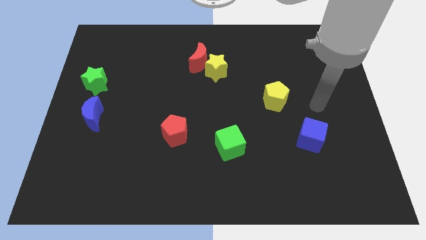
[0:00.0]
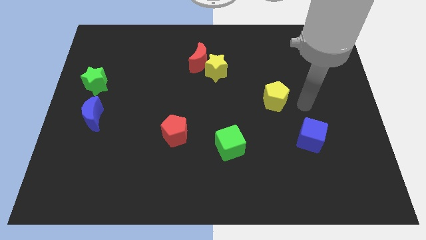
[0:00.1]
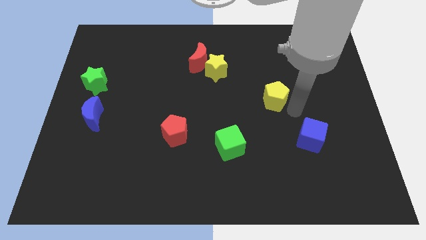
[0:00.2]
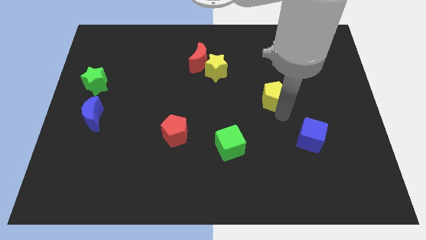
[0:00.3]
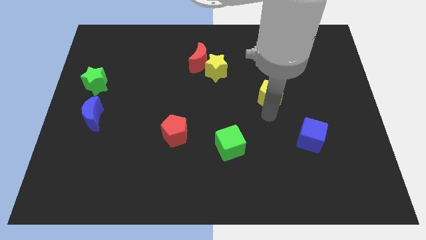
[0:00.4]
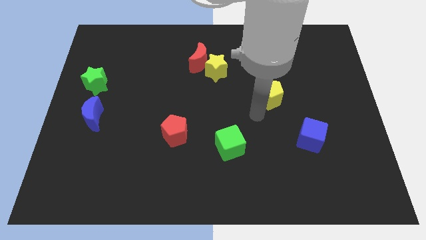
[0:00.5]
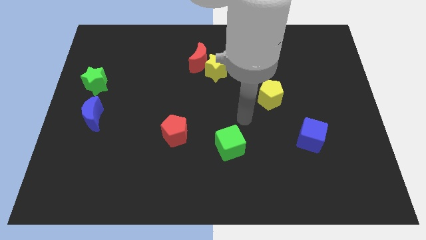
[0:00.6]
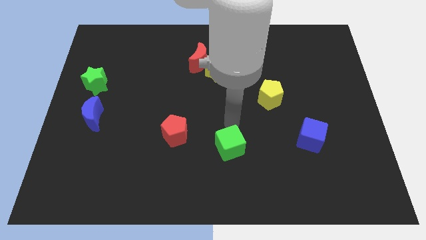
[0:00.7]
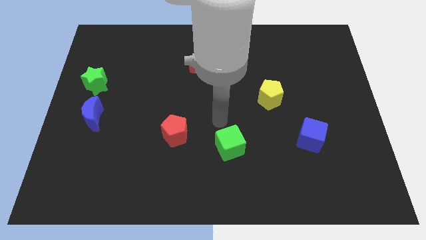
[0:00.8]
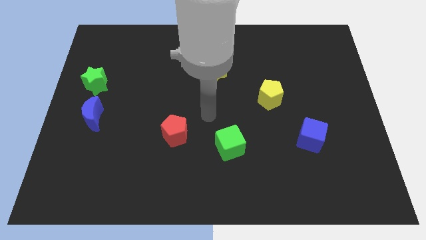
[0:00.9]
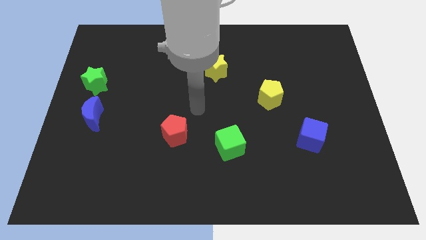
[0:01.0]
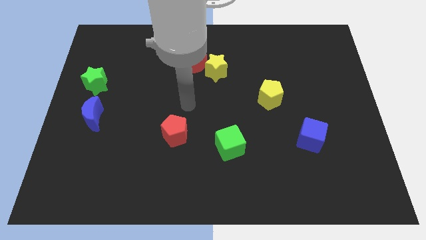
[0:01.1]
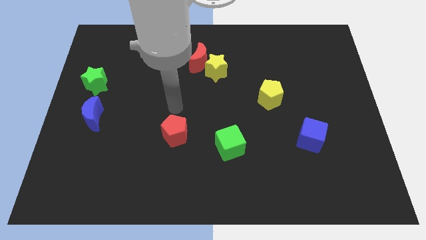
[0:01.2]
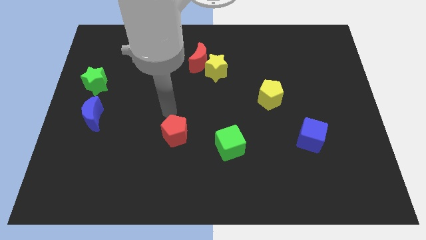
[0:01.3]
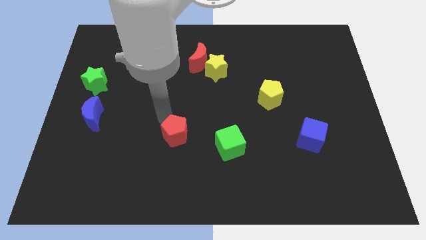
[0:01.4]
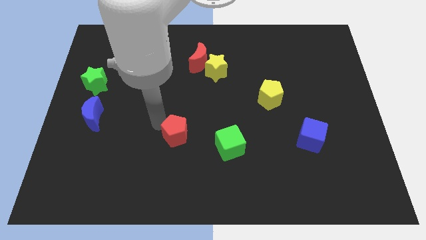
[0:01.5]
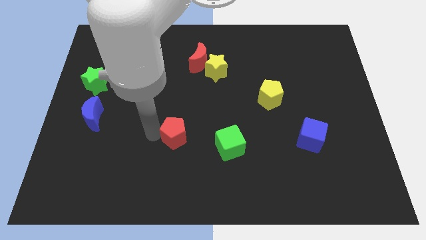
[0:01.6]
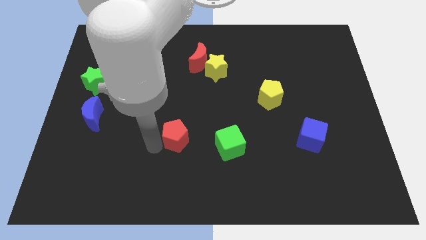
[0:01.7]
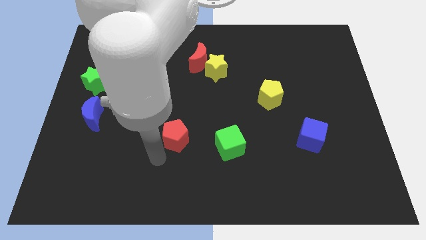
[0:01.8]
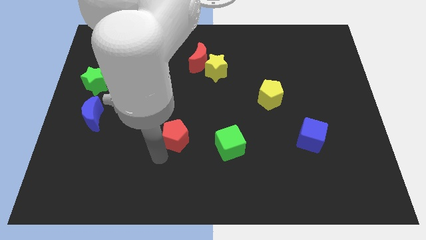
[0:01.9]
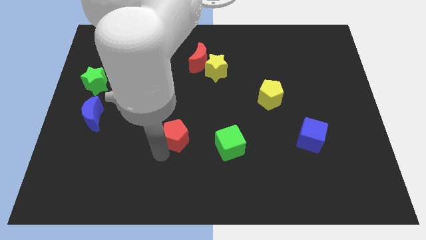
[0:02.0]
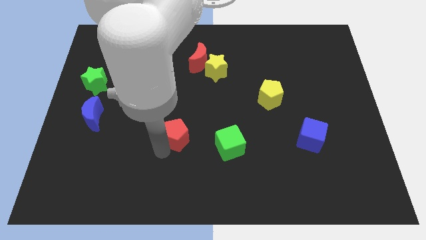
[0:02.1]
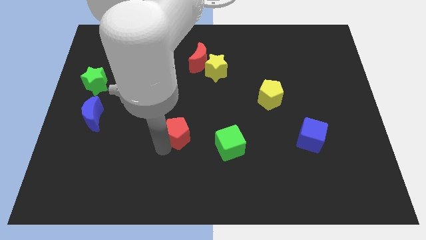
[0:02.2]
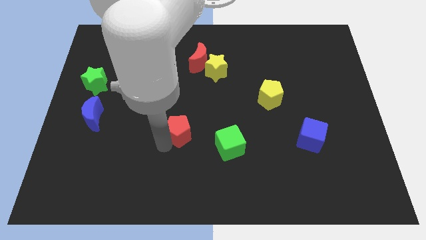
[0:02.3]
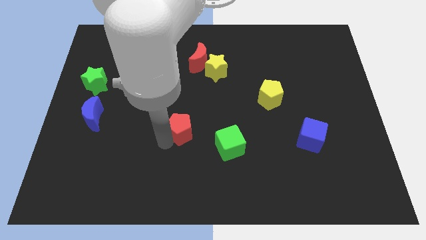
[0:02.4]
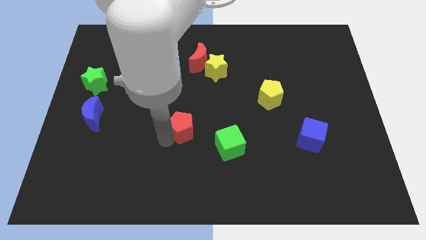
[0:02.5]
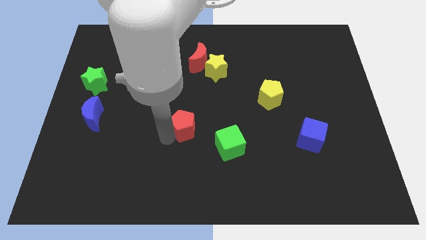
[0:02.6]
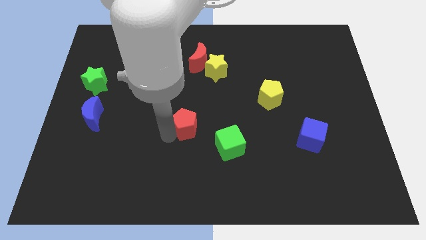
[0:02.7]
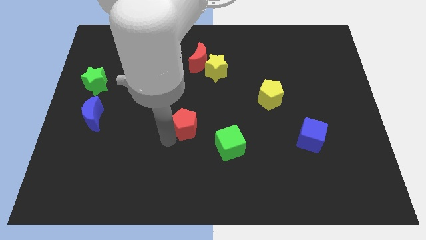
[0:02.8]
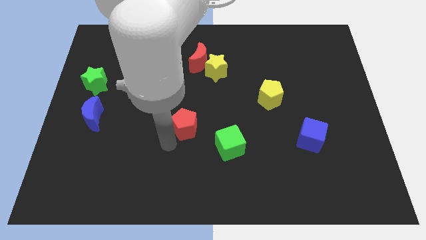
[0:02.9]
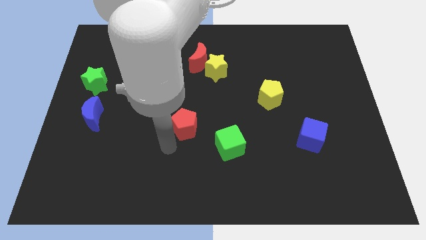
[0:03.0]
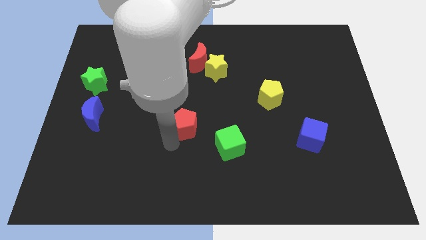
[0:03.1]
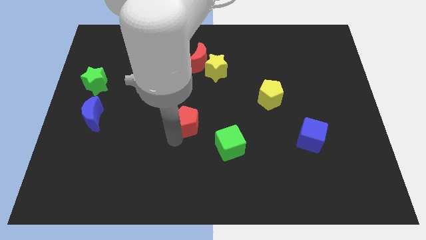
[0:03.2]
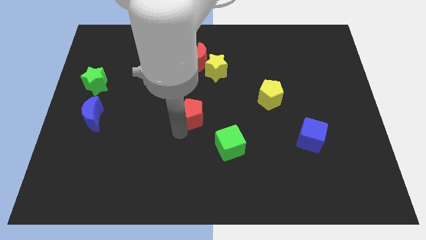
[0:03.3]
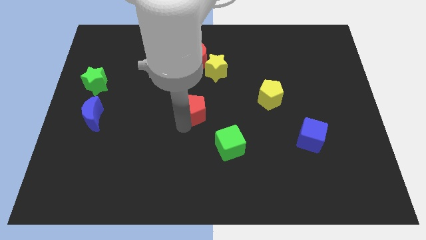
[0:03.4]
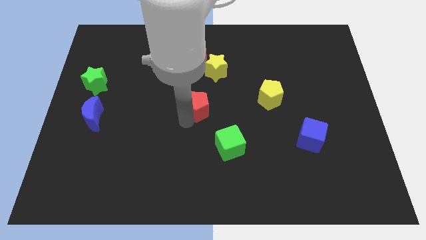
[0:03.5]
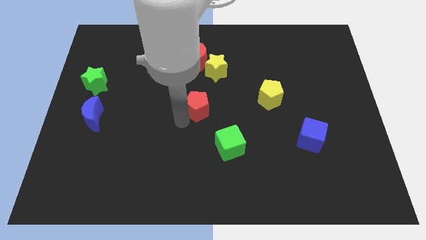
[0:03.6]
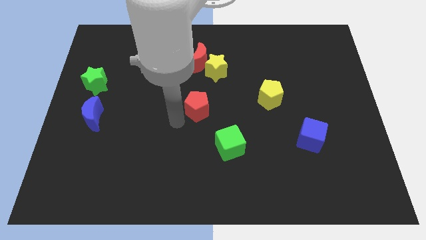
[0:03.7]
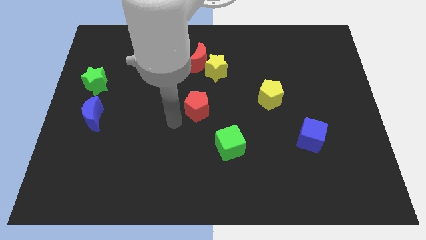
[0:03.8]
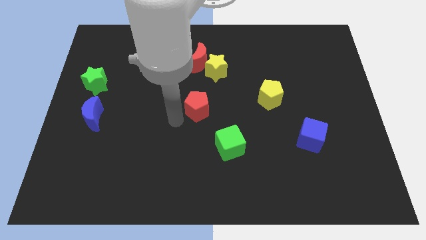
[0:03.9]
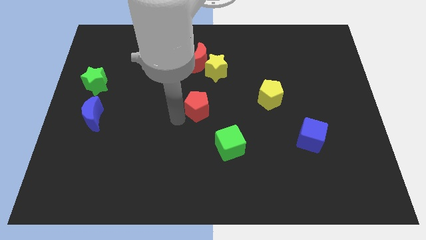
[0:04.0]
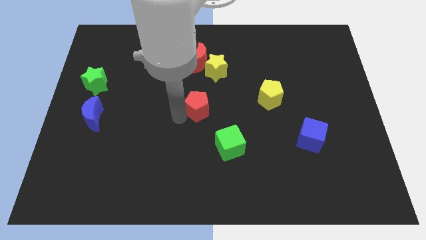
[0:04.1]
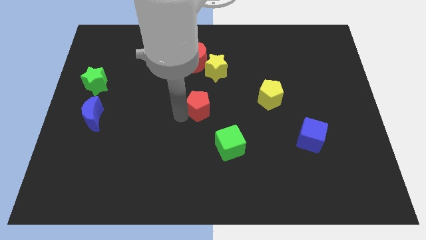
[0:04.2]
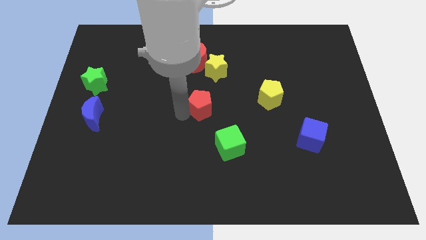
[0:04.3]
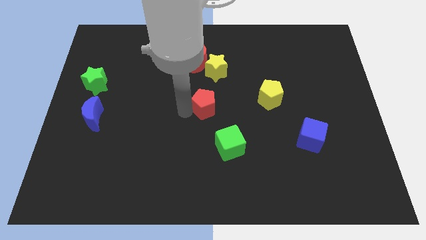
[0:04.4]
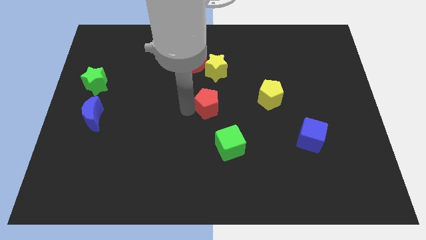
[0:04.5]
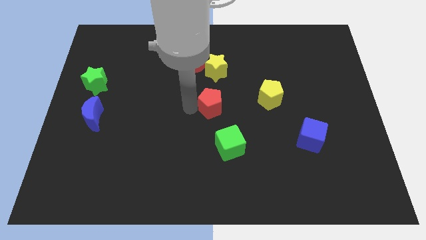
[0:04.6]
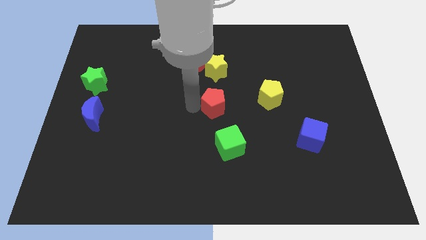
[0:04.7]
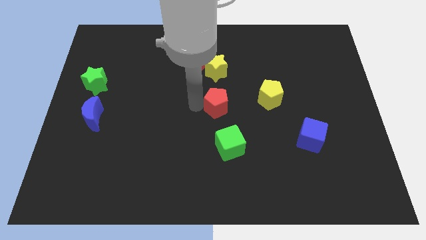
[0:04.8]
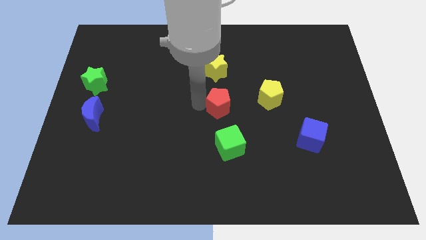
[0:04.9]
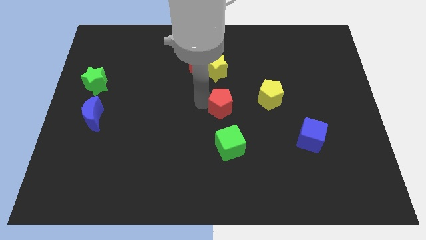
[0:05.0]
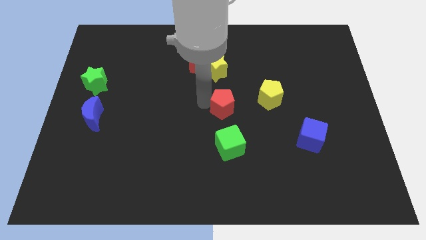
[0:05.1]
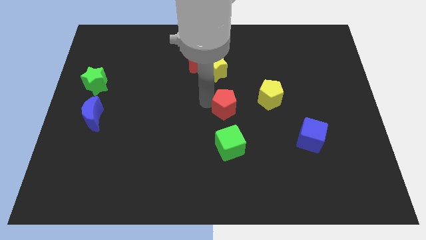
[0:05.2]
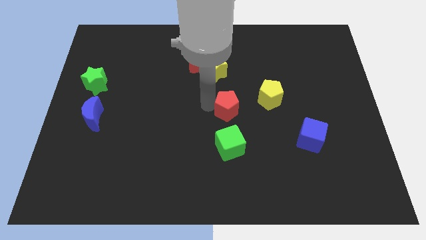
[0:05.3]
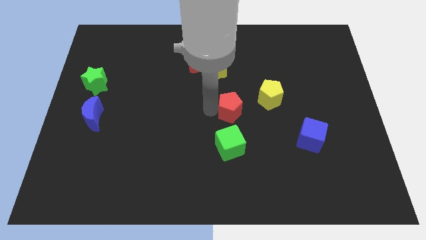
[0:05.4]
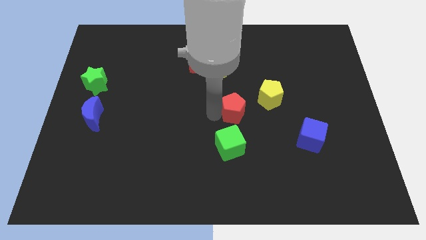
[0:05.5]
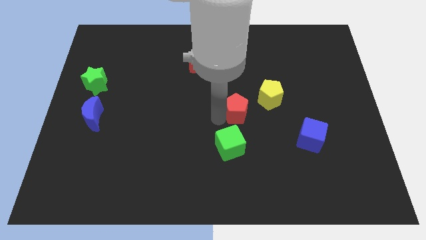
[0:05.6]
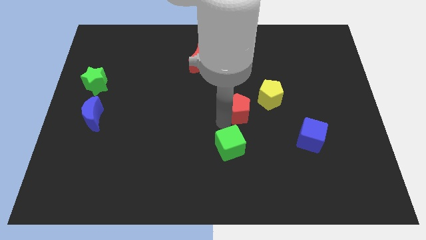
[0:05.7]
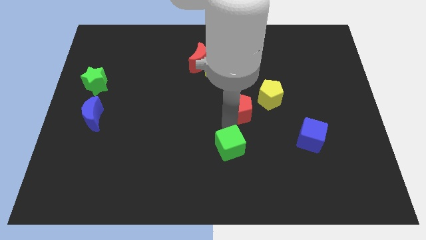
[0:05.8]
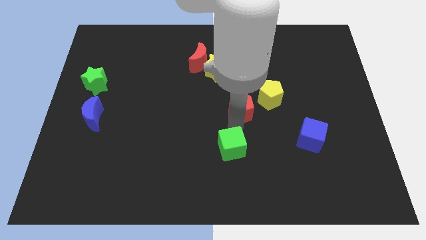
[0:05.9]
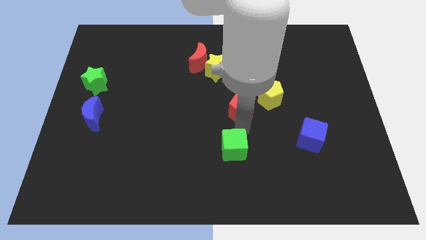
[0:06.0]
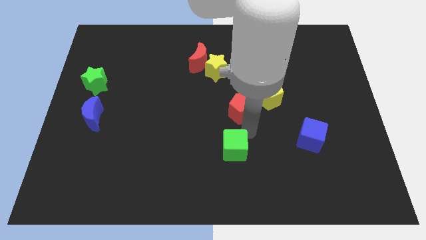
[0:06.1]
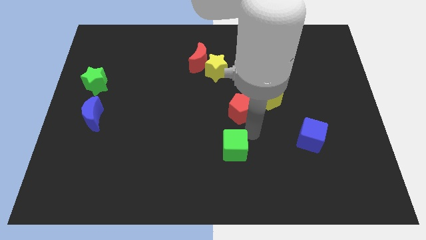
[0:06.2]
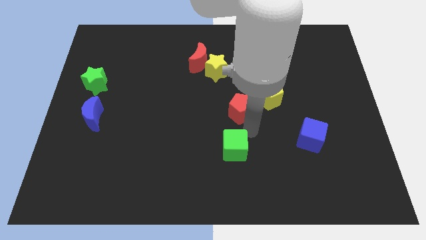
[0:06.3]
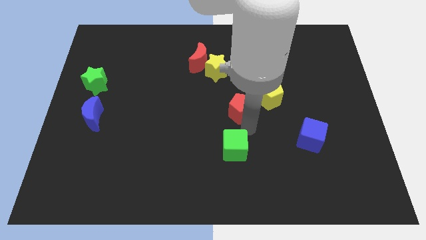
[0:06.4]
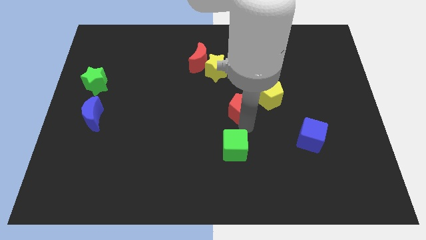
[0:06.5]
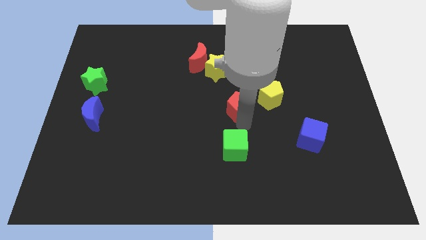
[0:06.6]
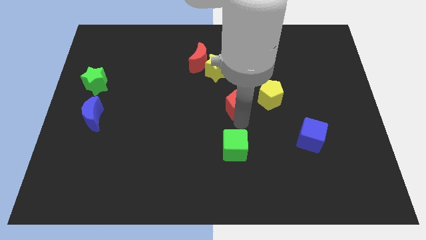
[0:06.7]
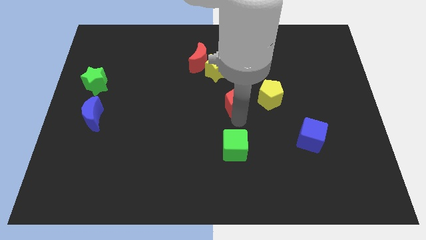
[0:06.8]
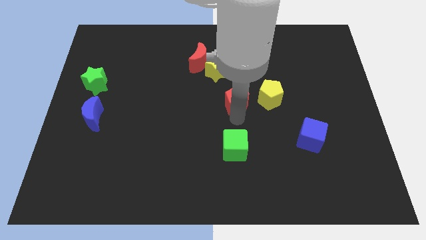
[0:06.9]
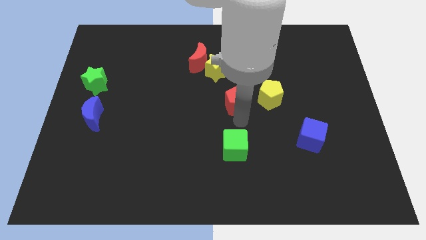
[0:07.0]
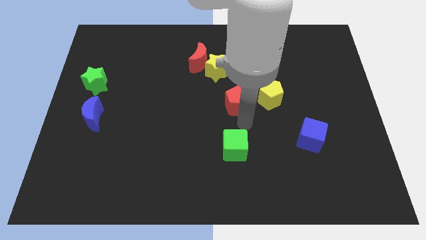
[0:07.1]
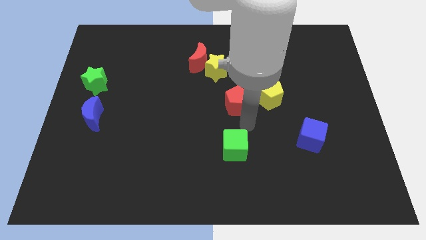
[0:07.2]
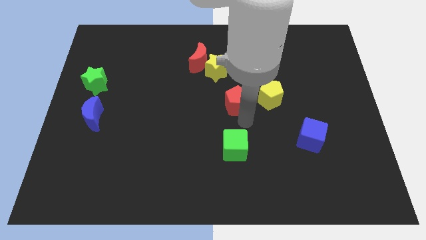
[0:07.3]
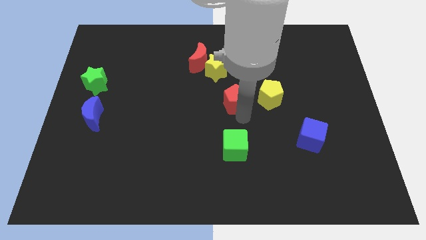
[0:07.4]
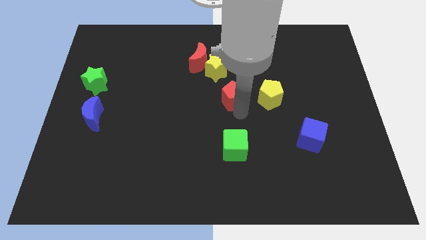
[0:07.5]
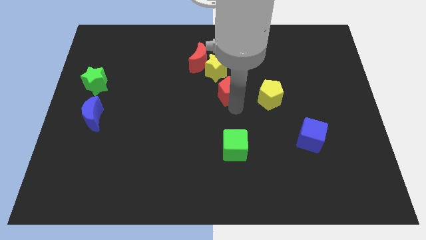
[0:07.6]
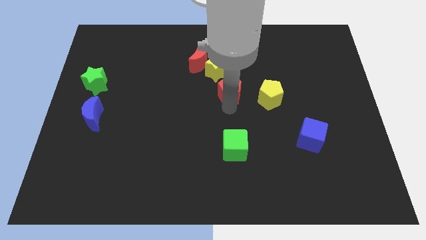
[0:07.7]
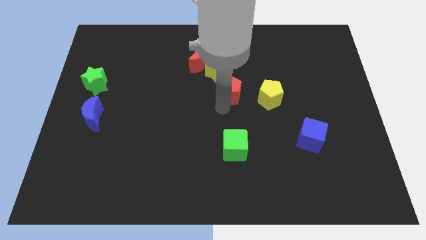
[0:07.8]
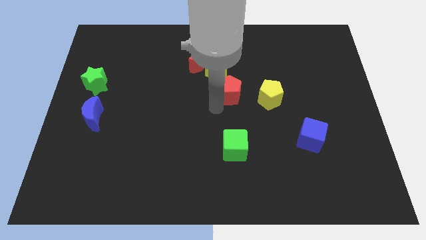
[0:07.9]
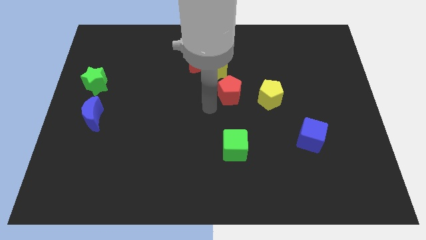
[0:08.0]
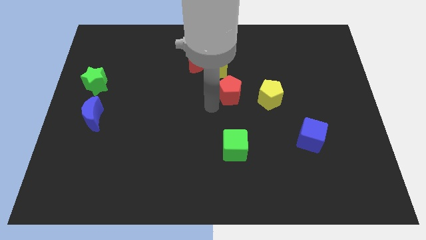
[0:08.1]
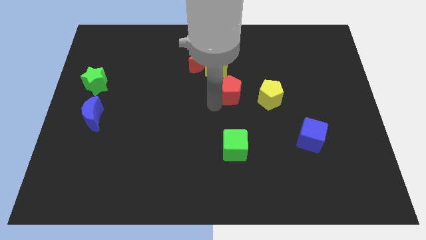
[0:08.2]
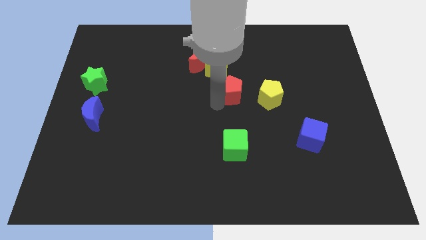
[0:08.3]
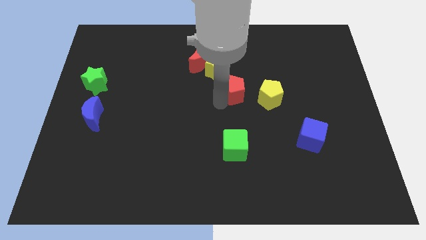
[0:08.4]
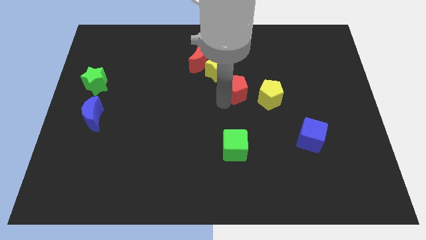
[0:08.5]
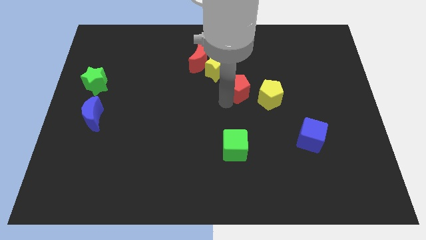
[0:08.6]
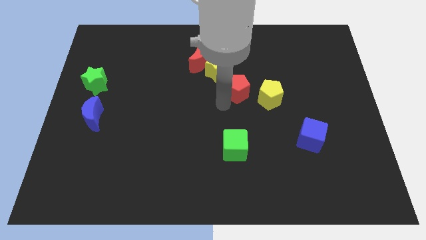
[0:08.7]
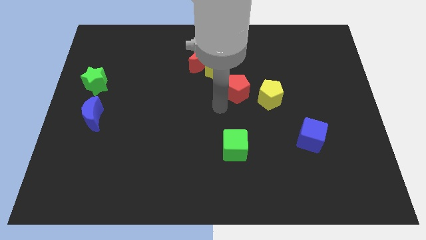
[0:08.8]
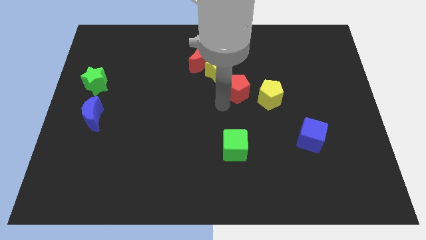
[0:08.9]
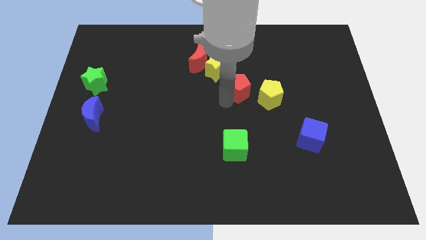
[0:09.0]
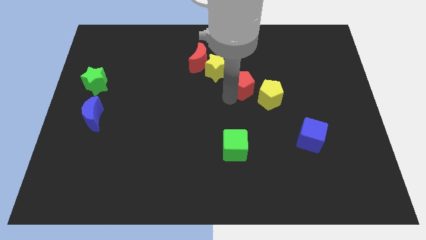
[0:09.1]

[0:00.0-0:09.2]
push the red pentagon diagonally upwards and to the right
